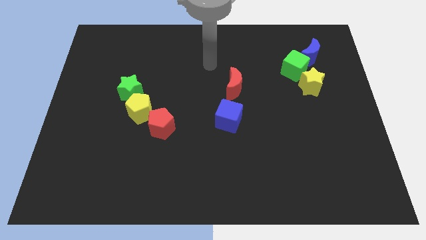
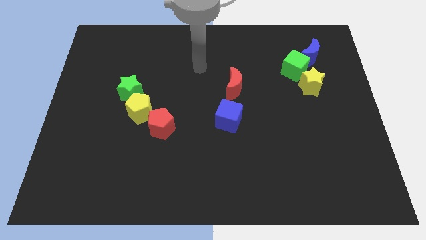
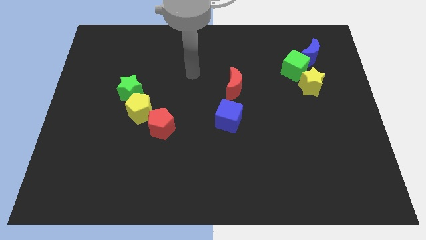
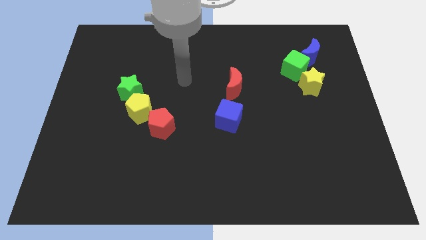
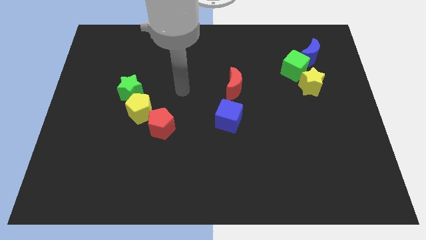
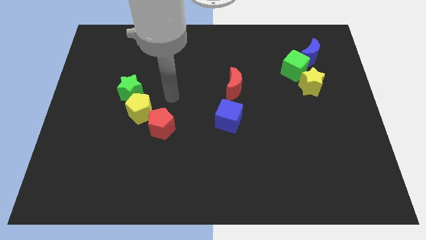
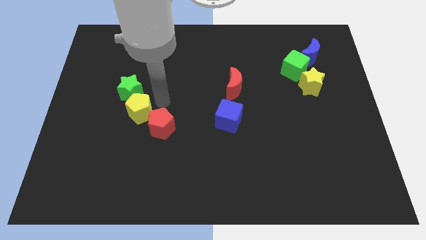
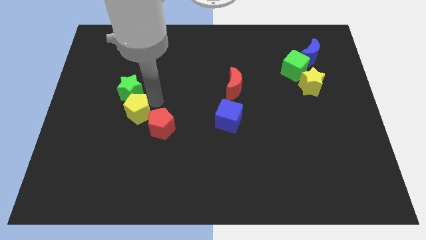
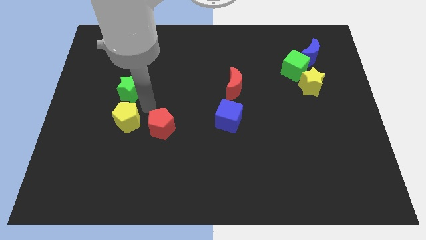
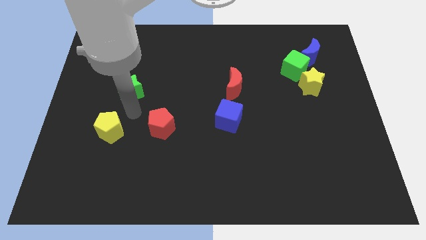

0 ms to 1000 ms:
pull the green star apart from the yellow pentagon

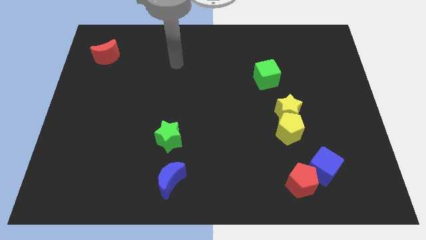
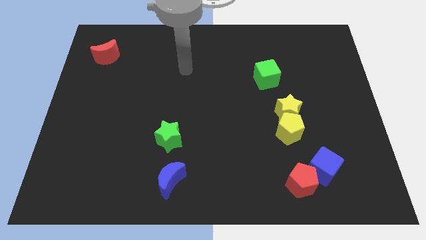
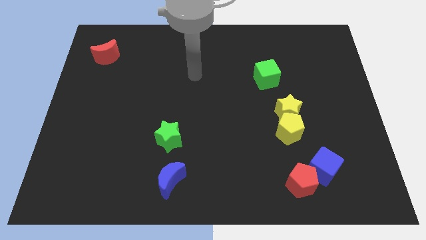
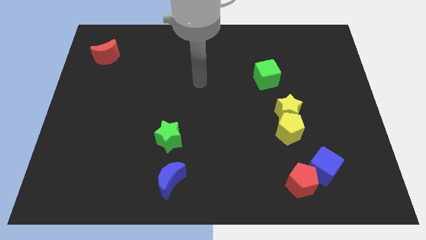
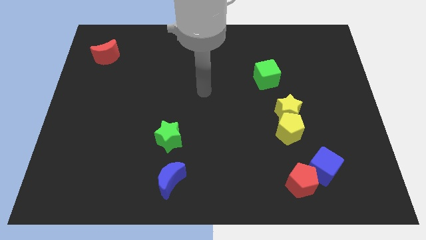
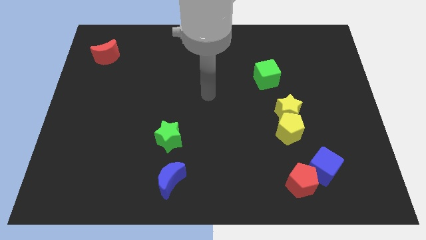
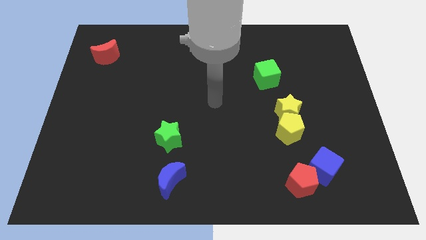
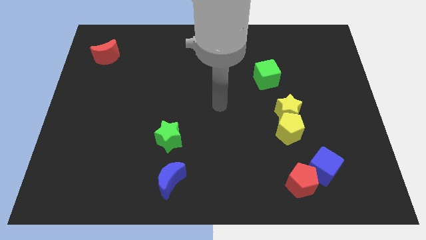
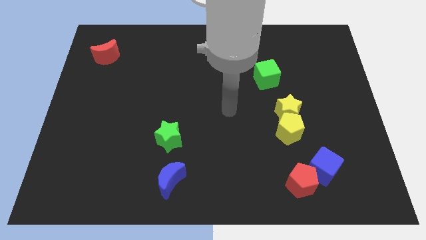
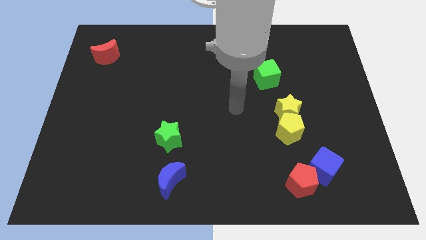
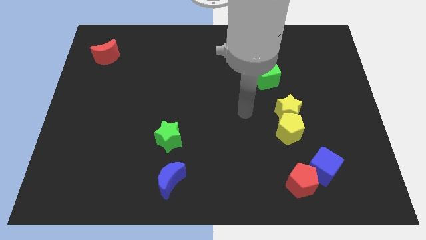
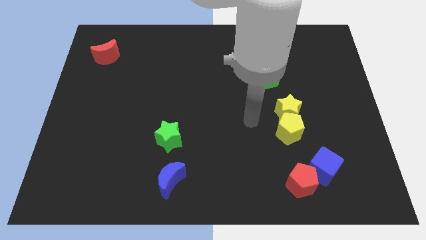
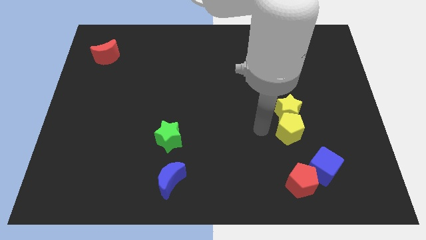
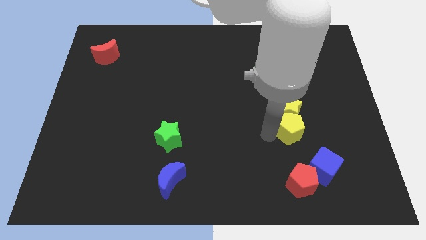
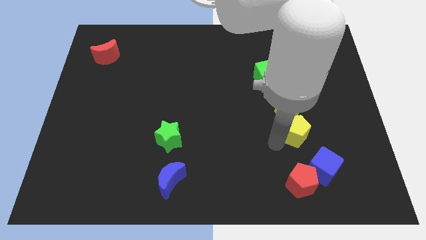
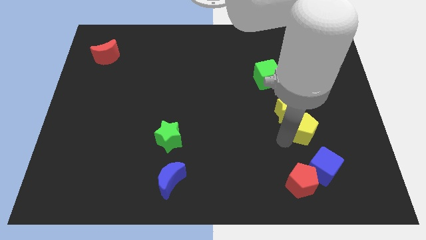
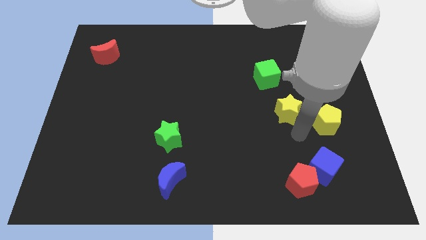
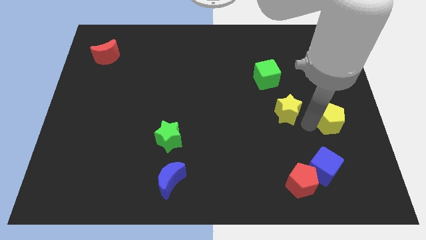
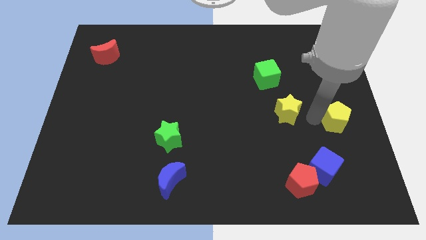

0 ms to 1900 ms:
separate the yellow star from the yellow pentagon

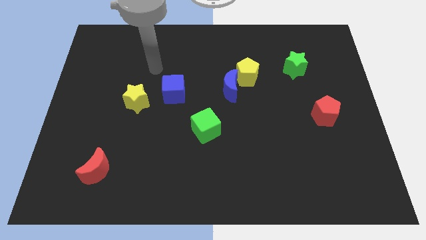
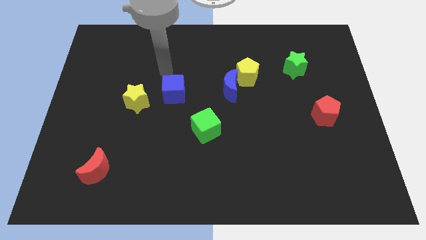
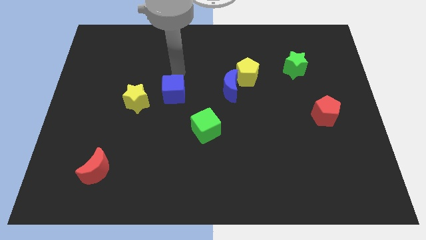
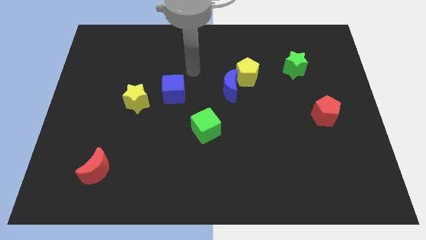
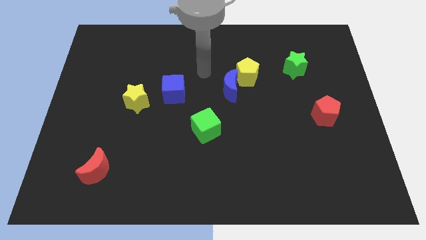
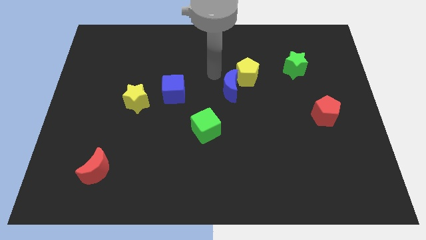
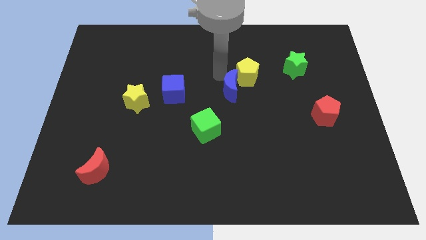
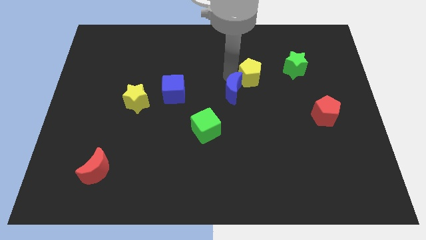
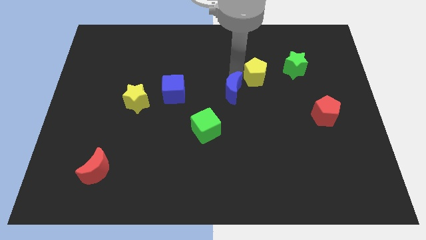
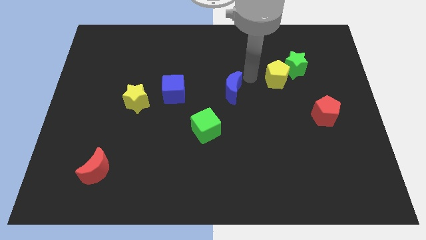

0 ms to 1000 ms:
separate the blue moon from the yellow pentagon

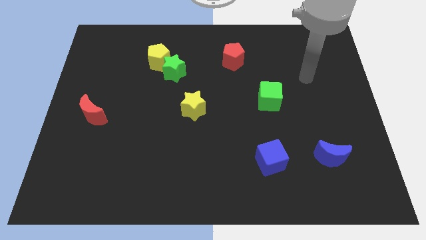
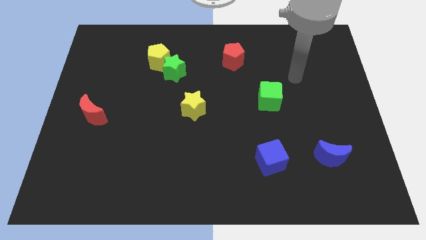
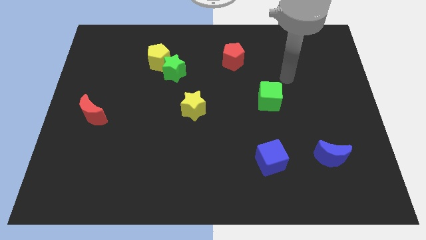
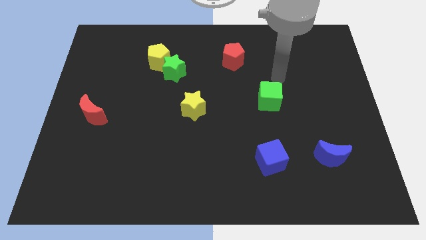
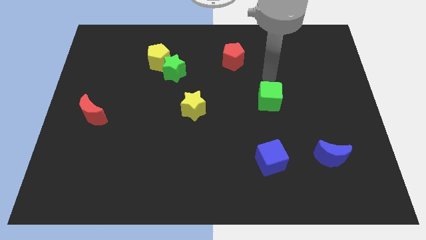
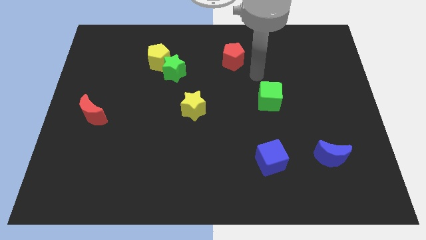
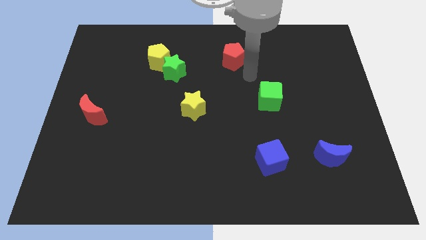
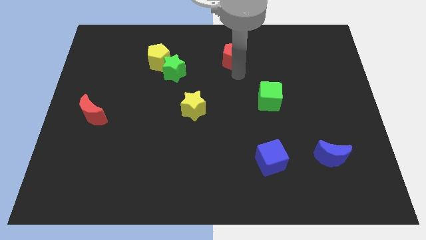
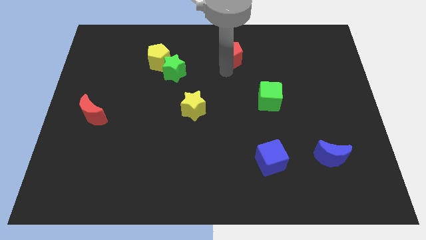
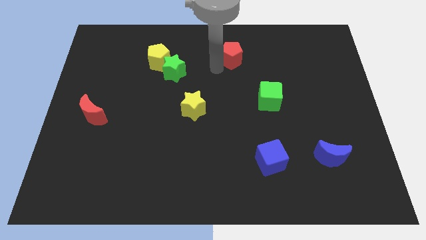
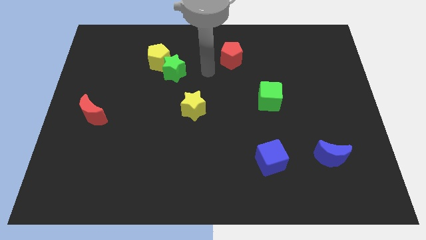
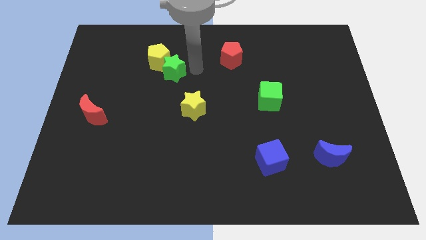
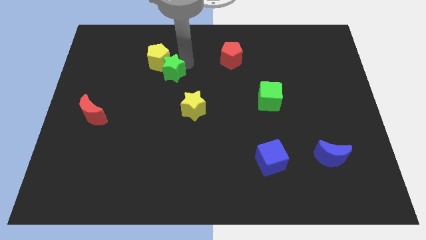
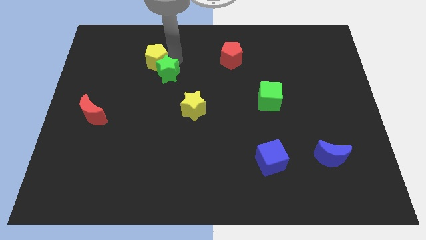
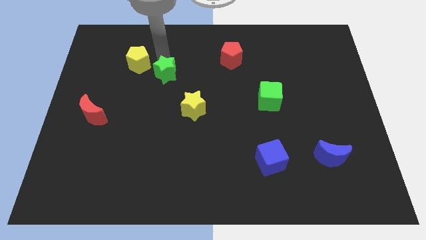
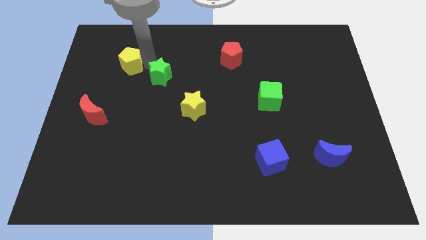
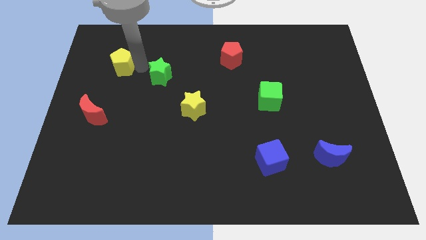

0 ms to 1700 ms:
move the green star away from the yellow pentagon

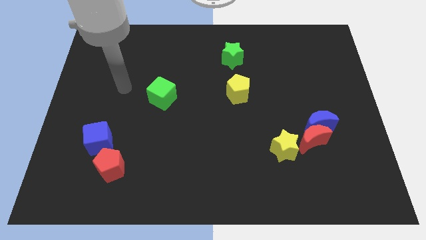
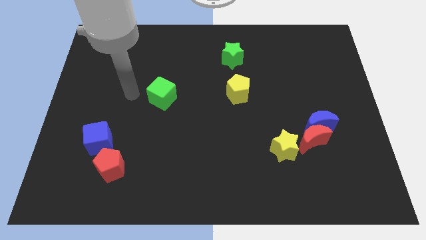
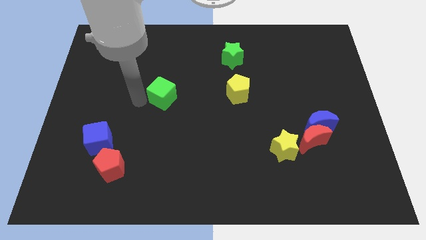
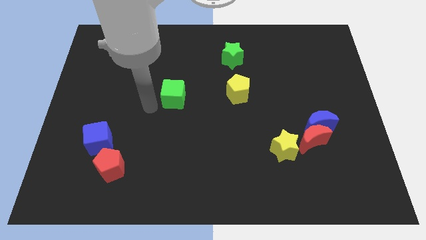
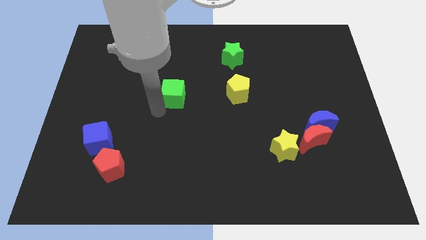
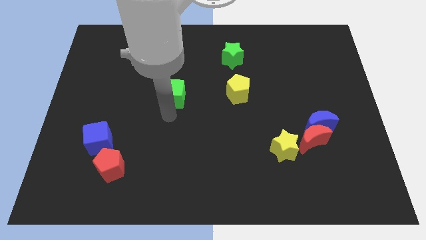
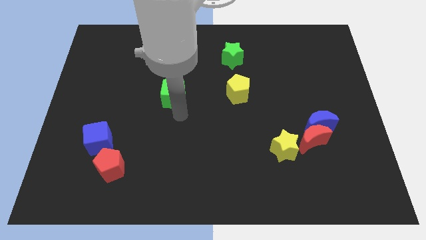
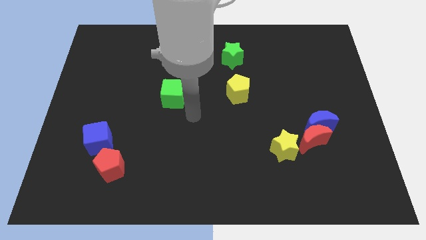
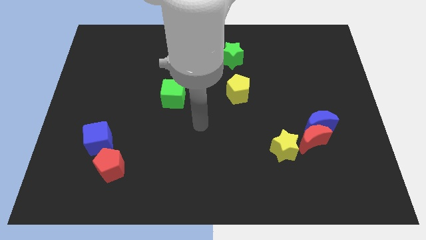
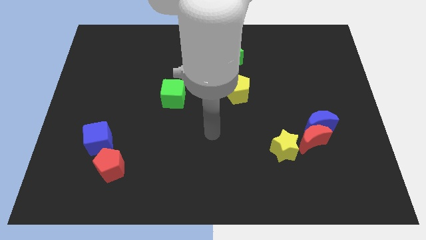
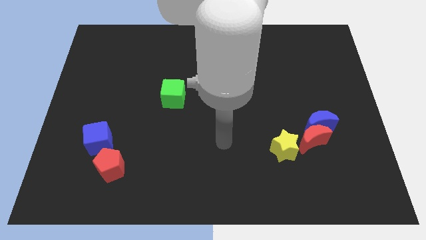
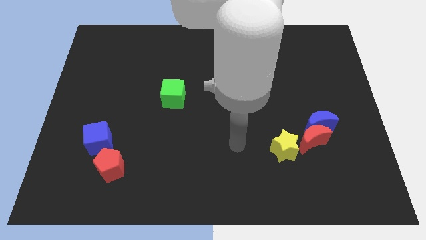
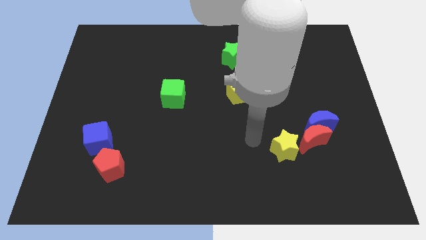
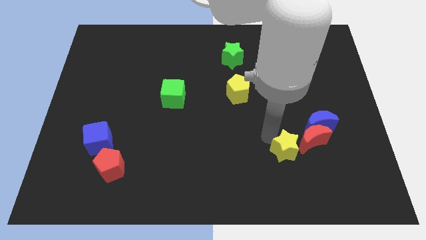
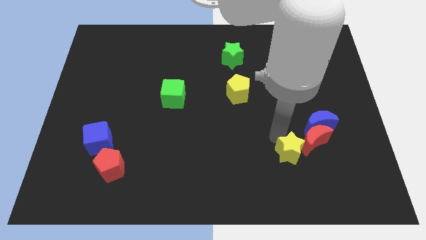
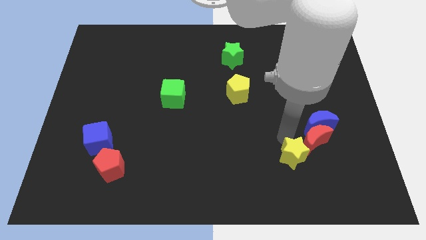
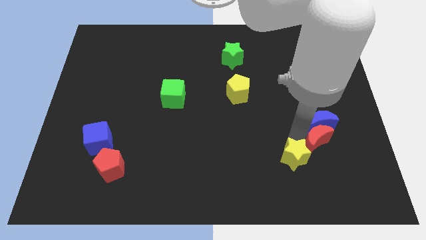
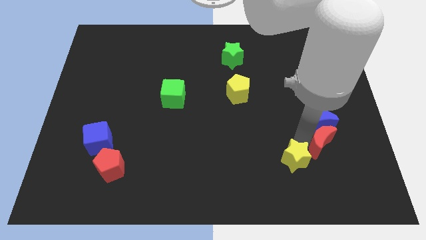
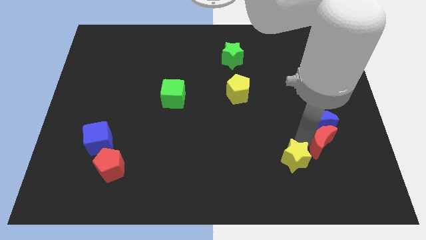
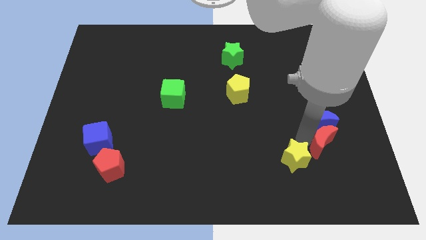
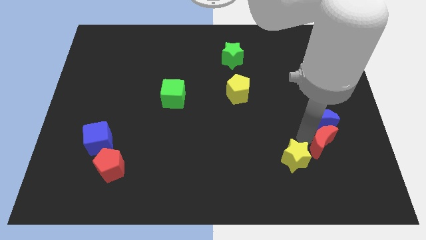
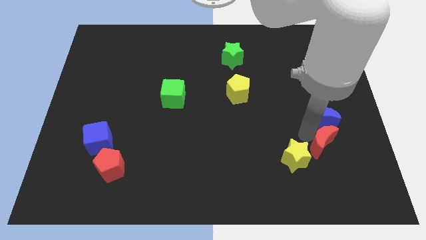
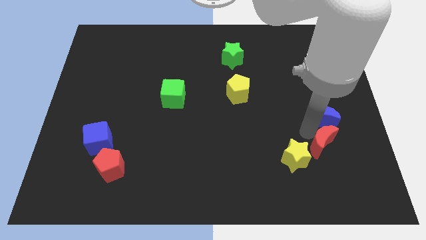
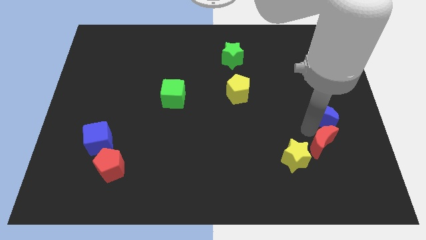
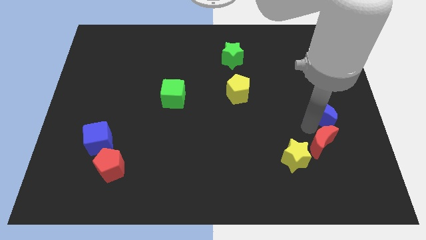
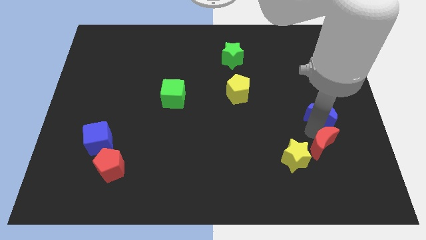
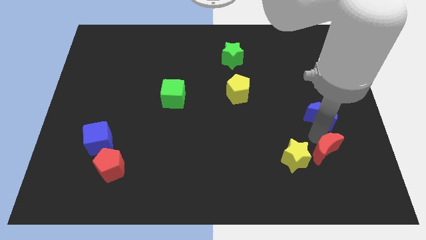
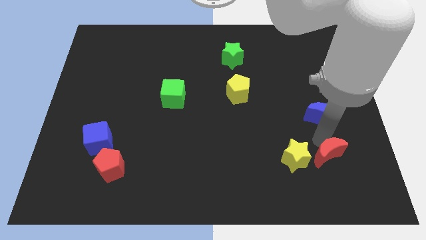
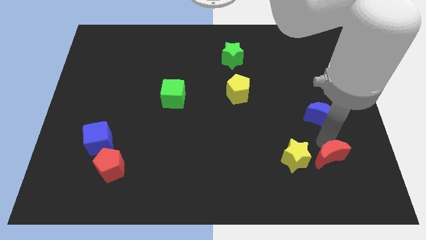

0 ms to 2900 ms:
move the blue moon away from the red moon

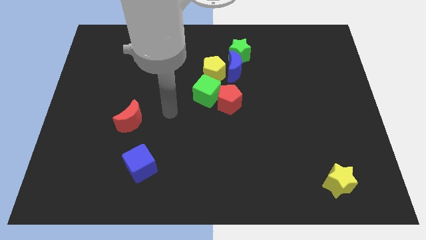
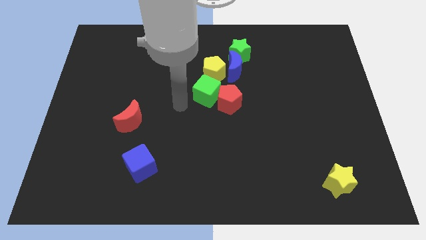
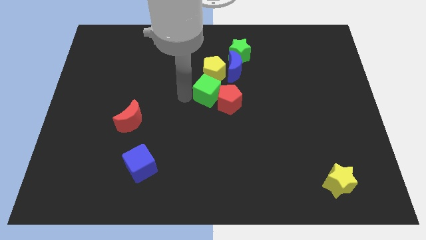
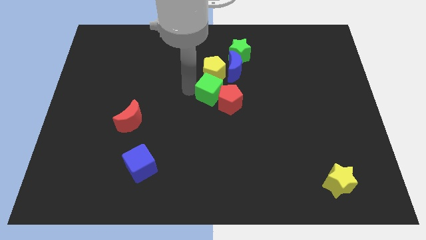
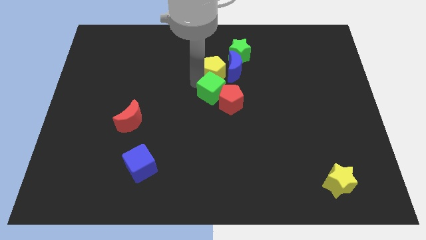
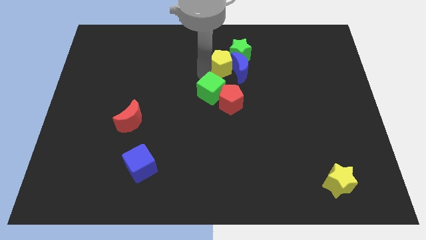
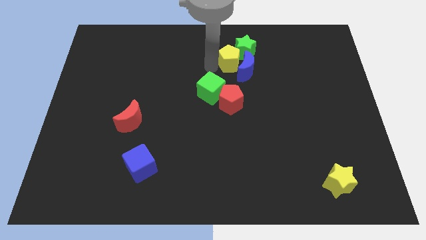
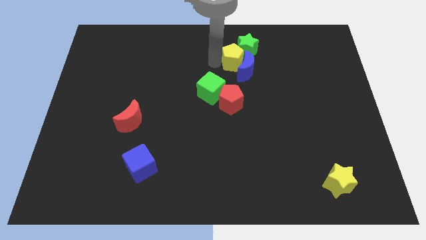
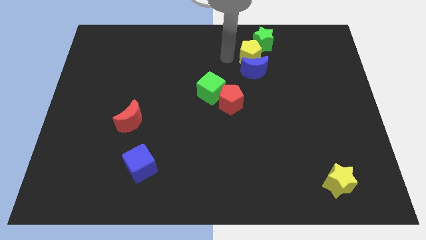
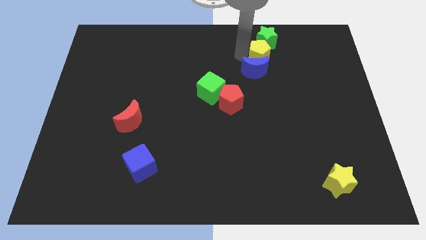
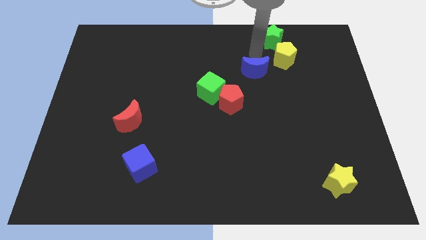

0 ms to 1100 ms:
separate the blue moon from the yellow pentagon and green star
